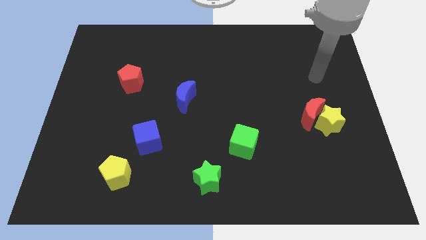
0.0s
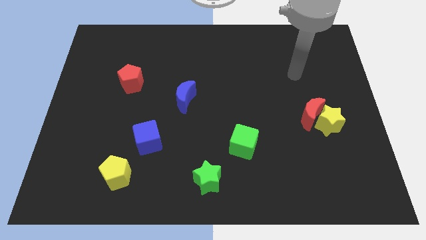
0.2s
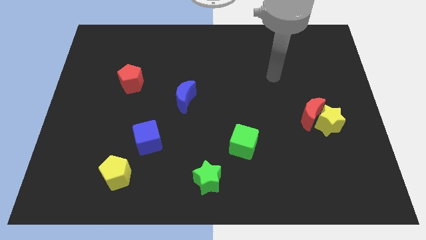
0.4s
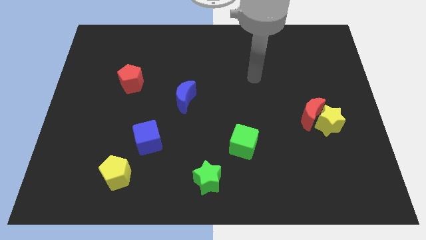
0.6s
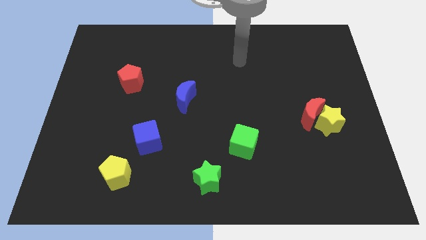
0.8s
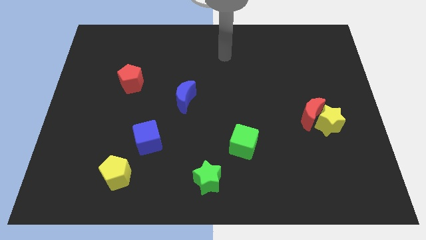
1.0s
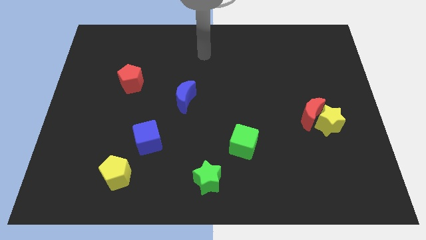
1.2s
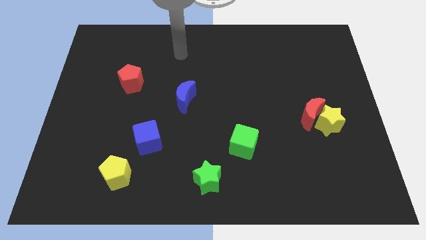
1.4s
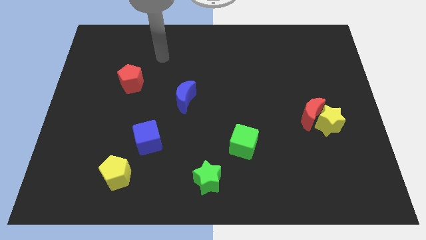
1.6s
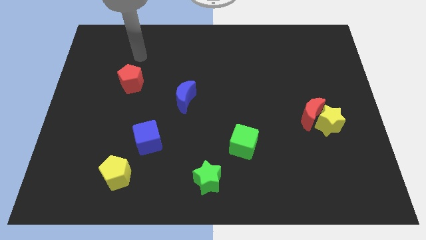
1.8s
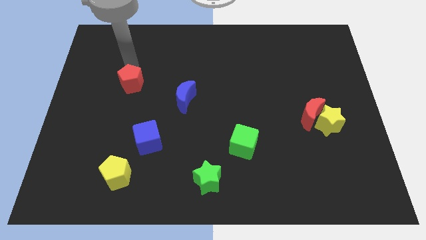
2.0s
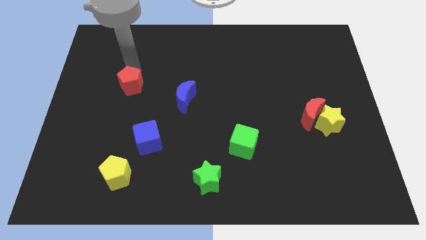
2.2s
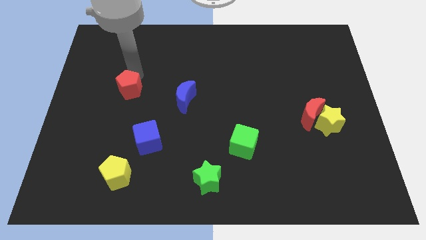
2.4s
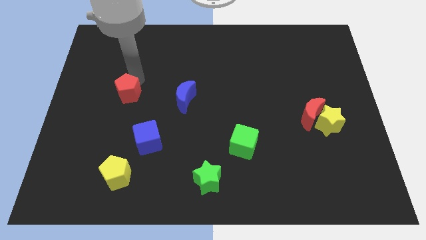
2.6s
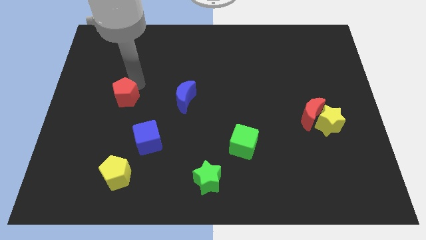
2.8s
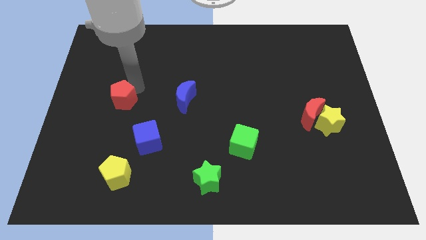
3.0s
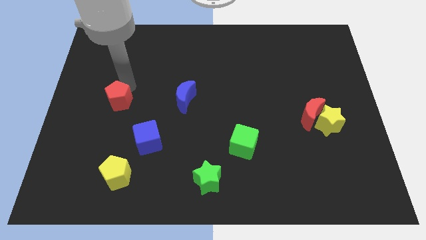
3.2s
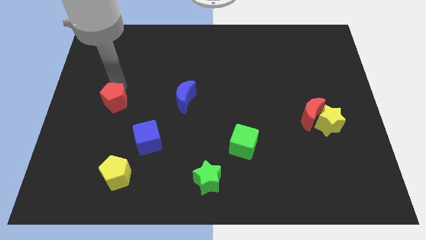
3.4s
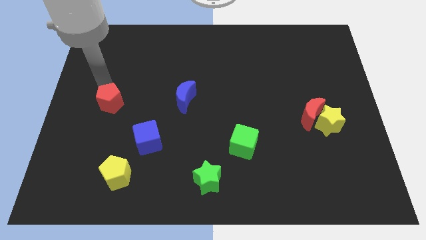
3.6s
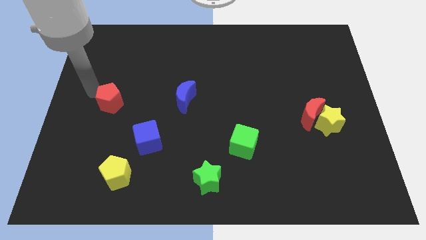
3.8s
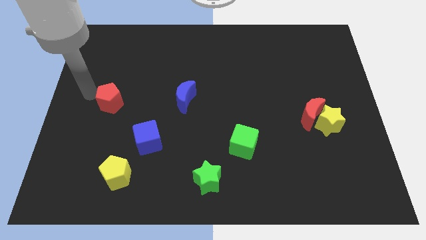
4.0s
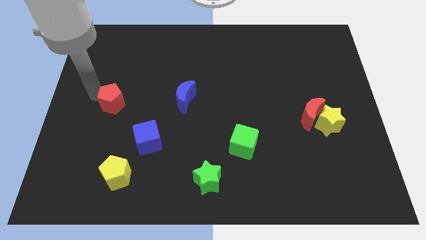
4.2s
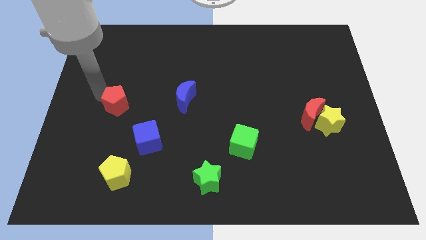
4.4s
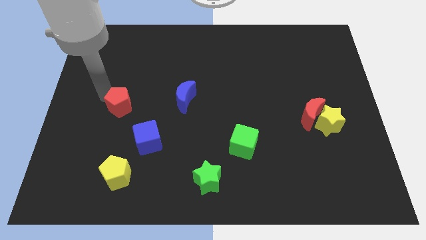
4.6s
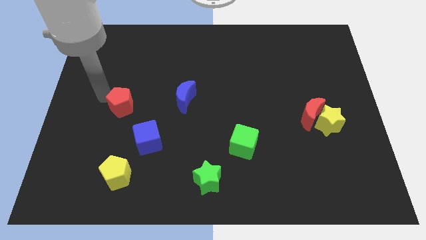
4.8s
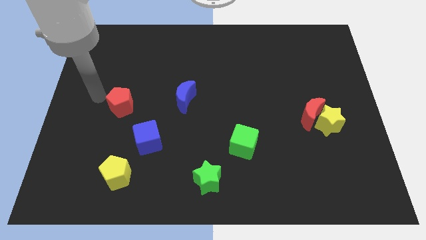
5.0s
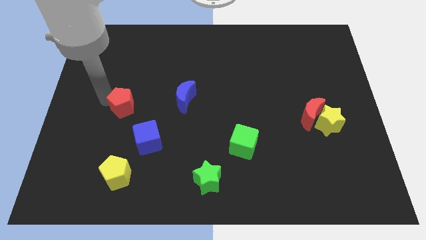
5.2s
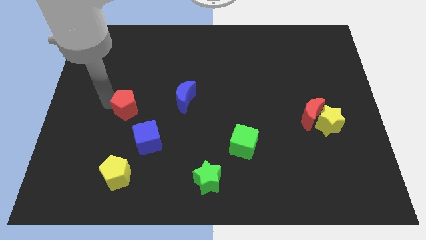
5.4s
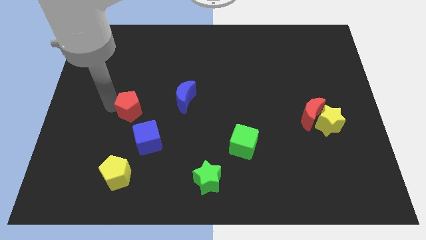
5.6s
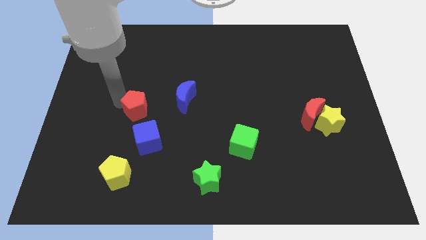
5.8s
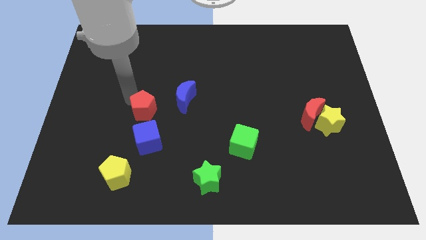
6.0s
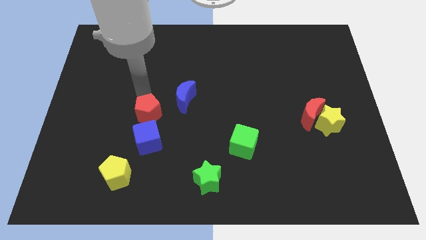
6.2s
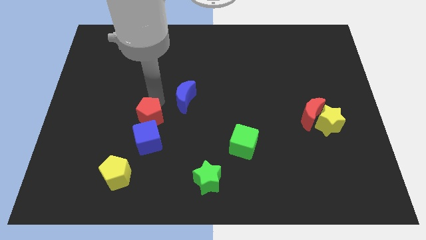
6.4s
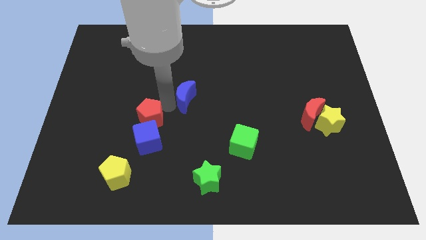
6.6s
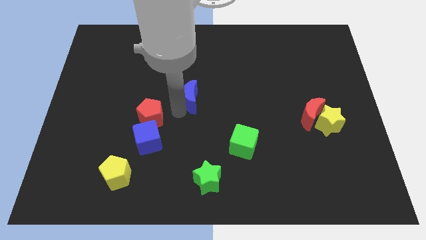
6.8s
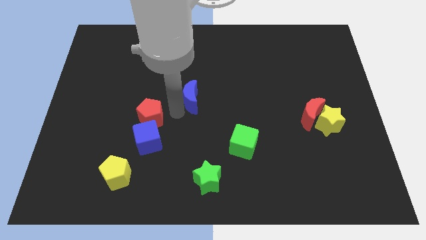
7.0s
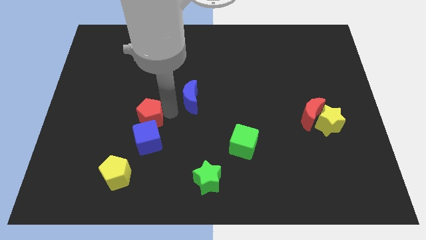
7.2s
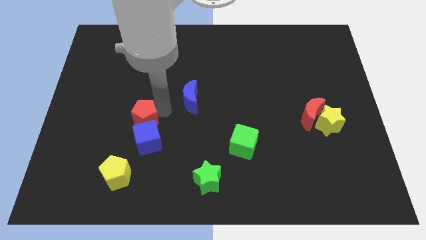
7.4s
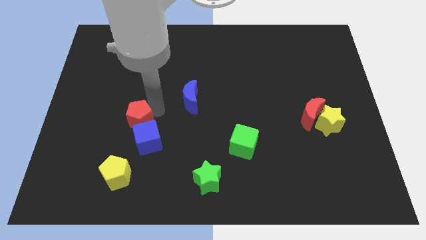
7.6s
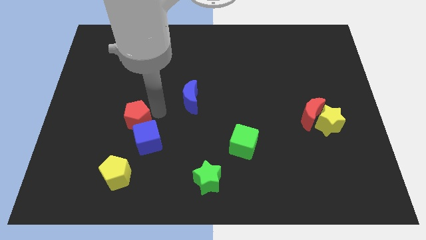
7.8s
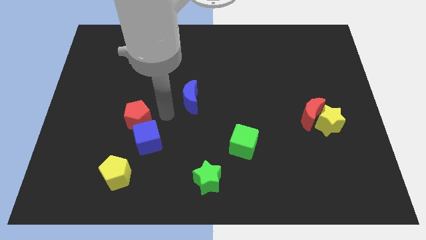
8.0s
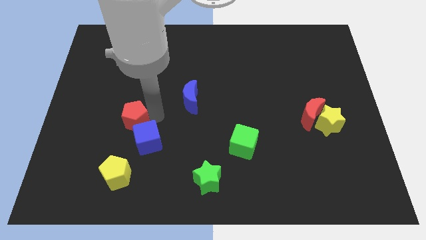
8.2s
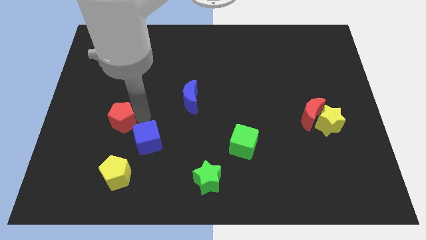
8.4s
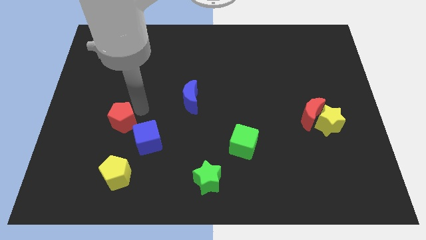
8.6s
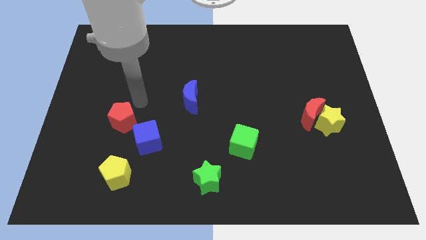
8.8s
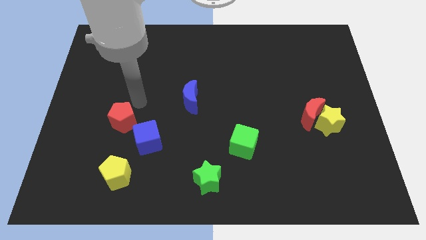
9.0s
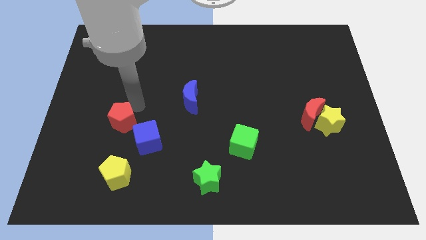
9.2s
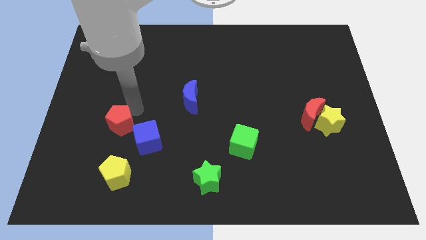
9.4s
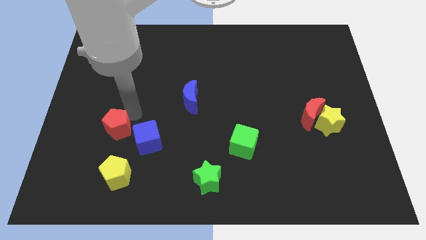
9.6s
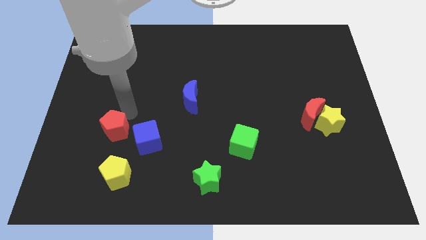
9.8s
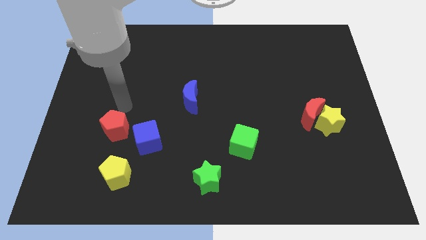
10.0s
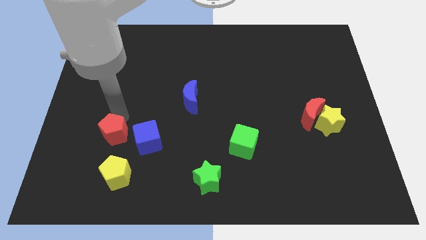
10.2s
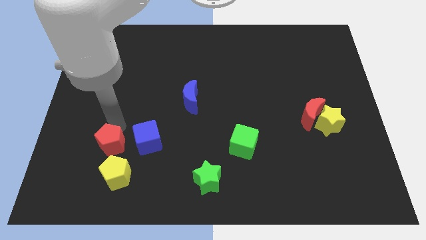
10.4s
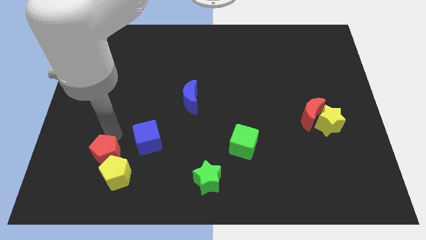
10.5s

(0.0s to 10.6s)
push the red pentagon close to the yellow pentagon

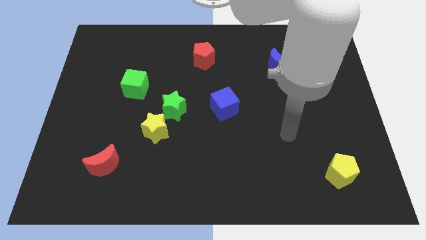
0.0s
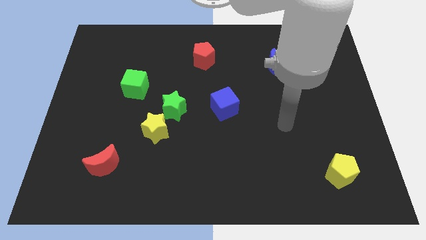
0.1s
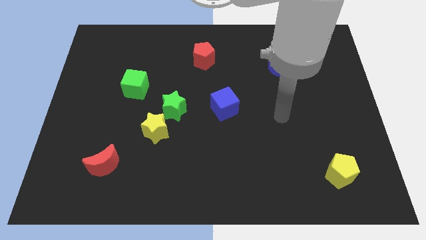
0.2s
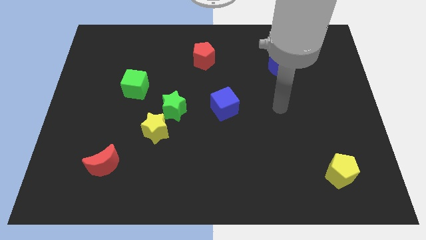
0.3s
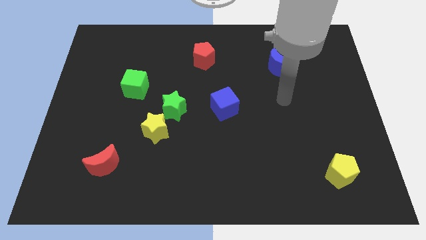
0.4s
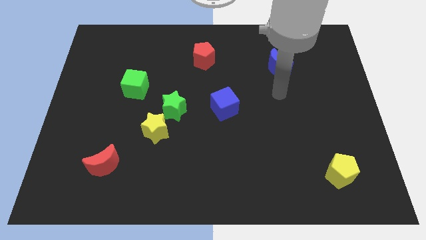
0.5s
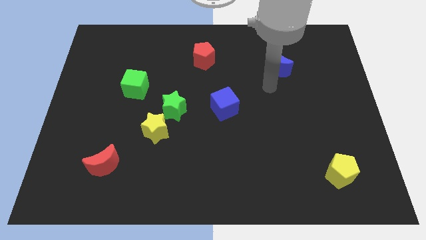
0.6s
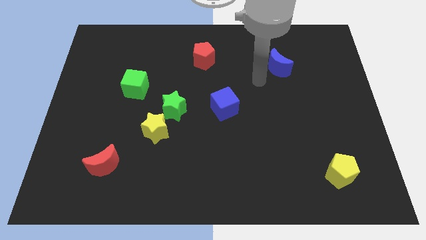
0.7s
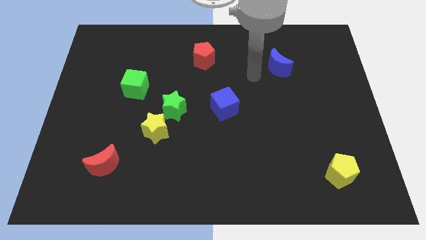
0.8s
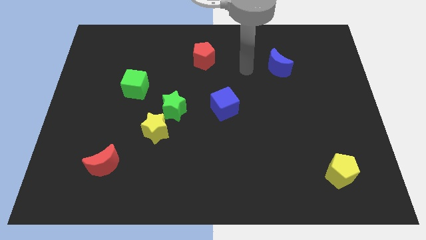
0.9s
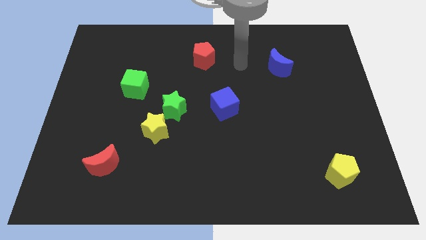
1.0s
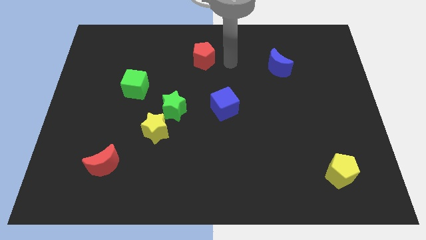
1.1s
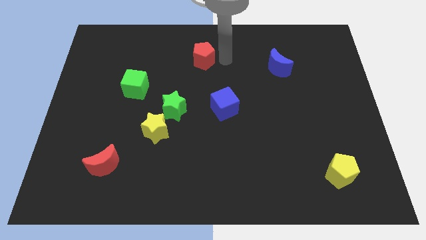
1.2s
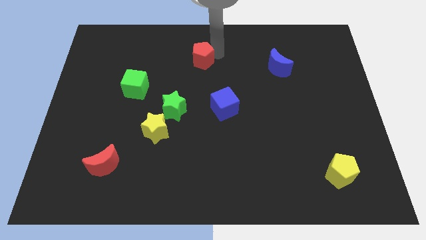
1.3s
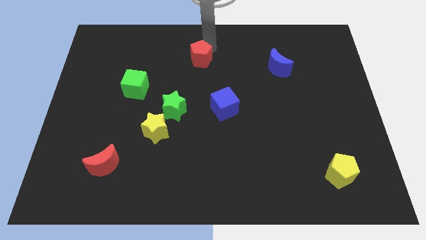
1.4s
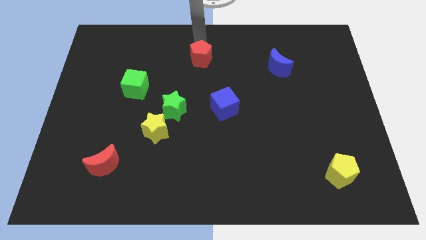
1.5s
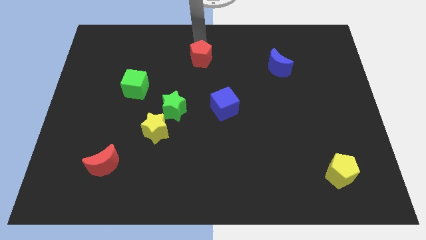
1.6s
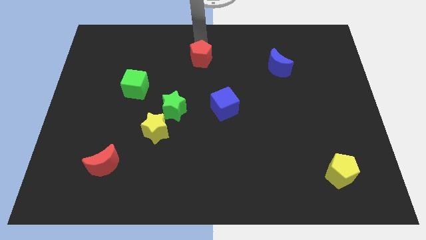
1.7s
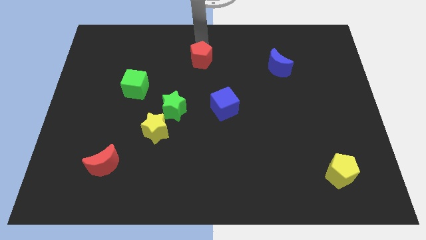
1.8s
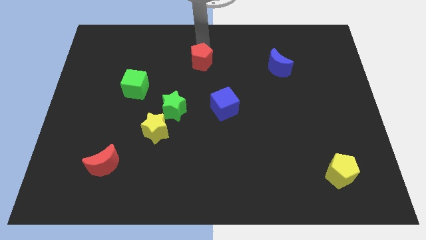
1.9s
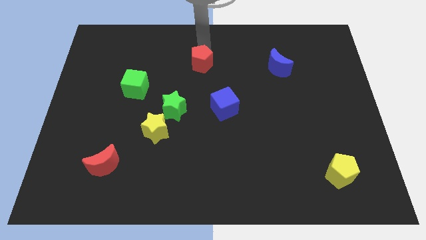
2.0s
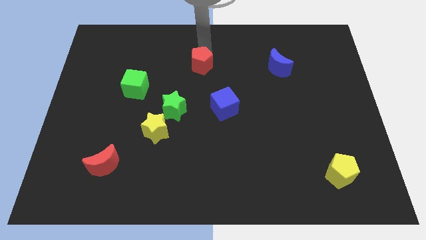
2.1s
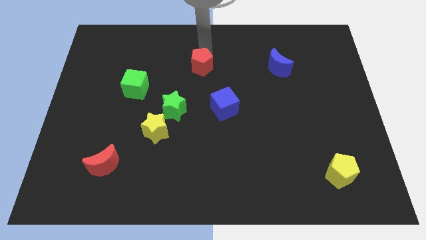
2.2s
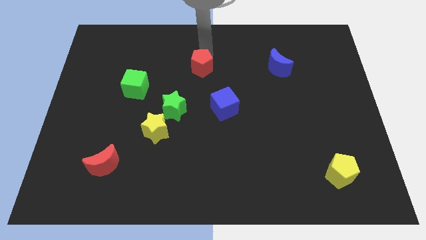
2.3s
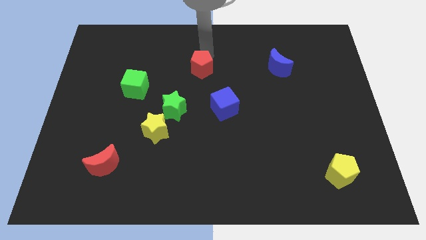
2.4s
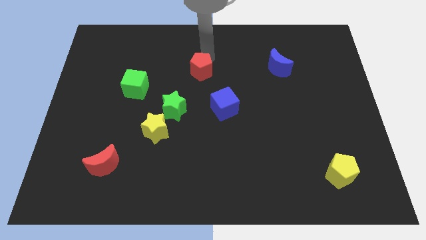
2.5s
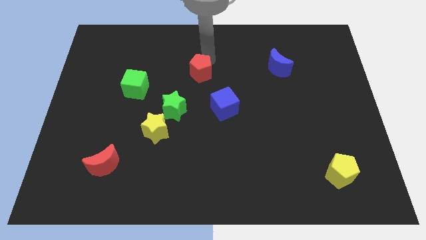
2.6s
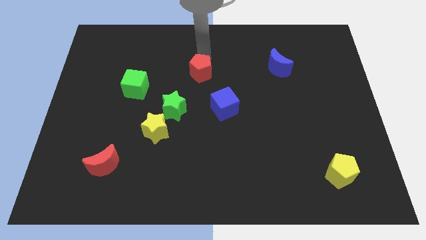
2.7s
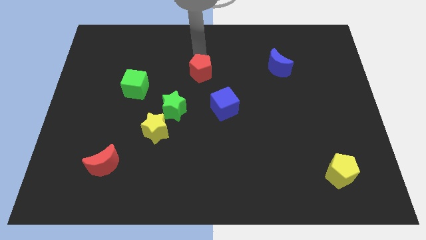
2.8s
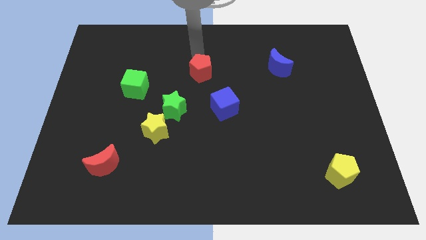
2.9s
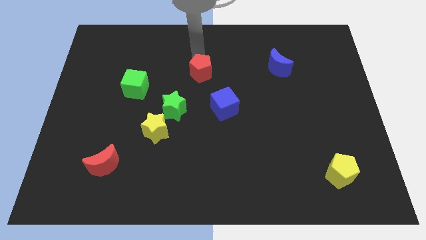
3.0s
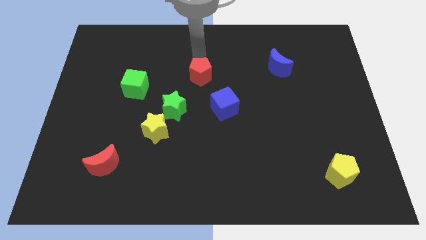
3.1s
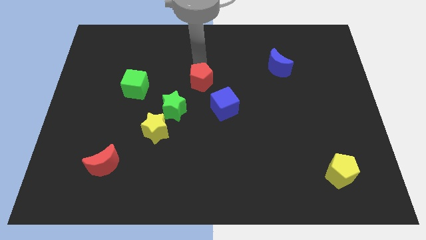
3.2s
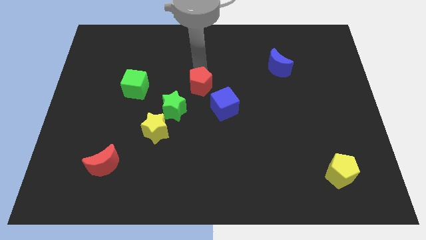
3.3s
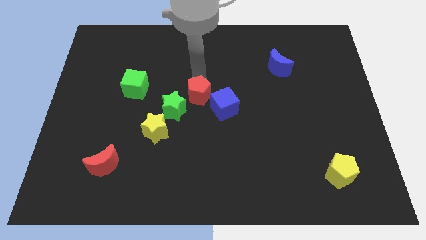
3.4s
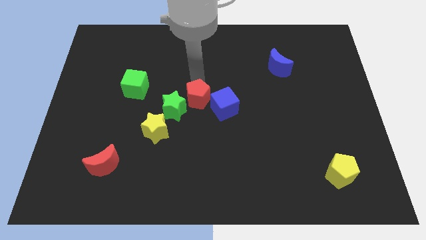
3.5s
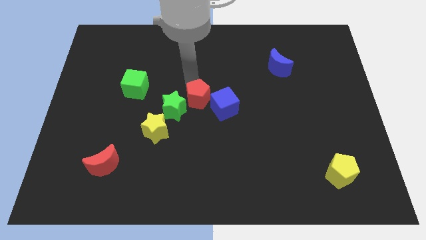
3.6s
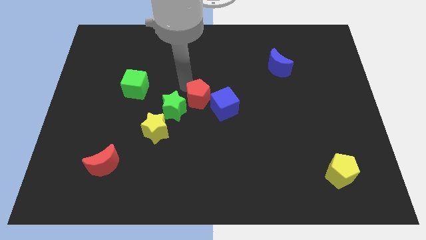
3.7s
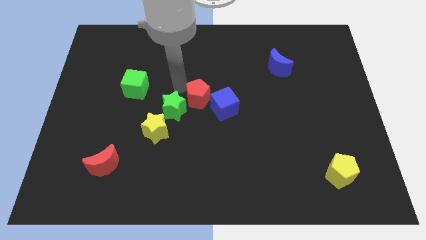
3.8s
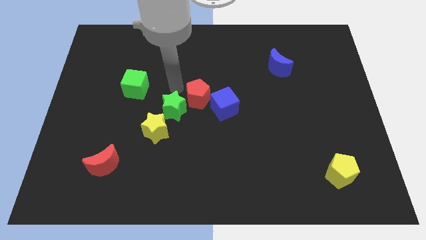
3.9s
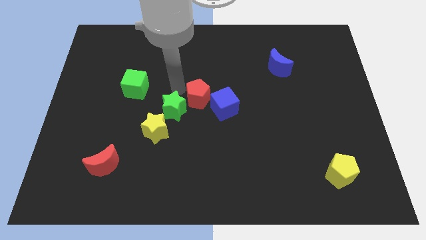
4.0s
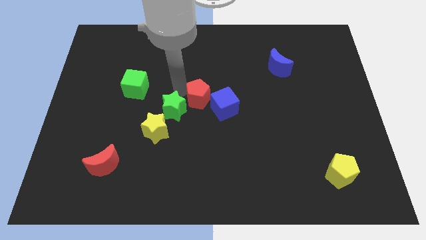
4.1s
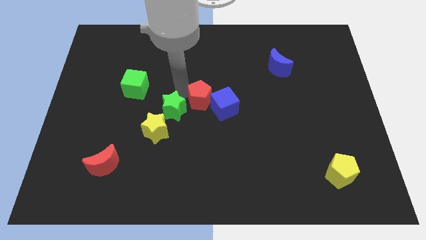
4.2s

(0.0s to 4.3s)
put the red pentagon towards the blue cube
